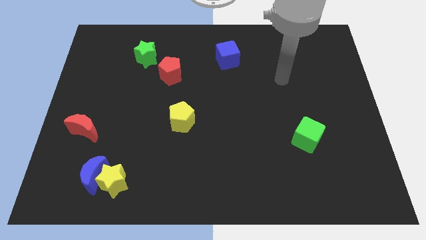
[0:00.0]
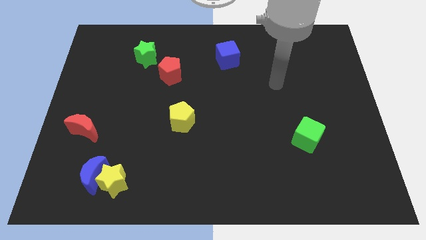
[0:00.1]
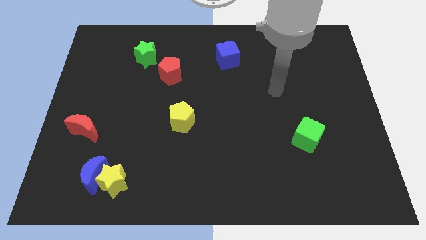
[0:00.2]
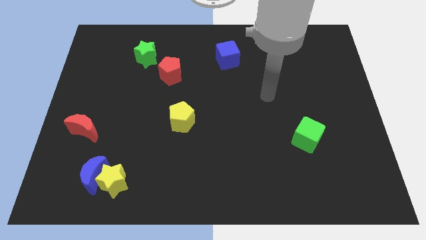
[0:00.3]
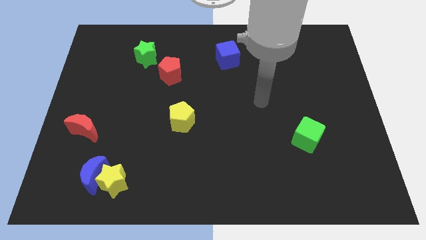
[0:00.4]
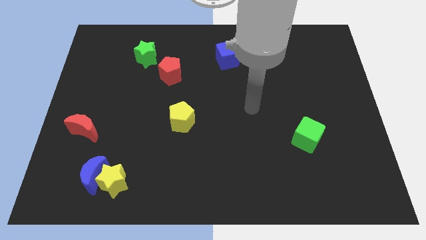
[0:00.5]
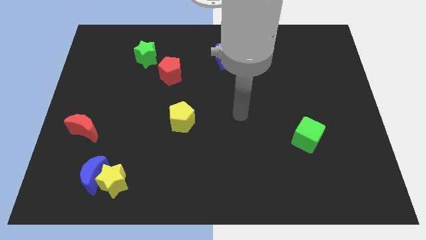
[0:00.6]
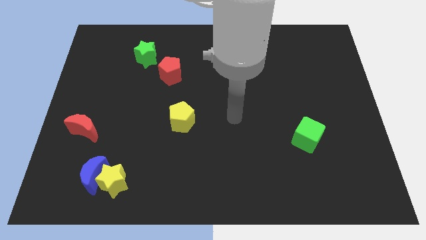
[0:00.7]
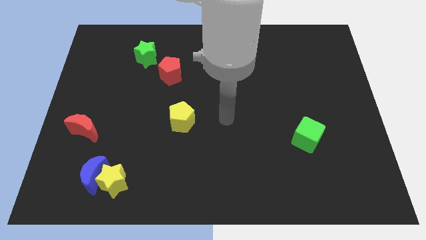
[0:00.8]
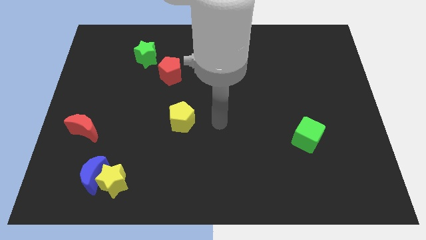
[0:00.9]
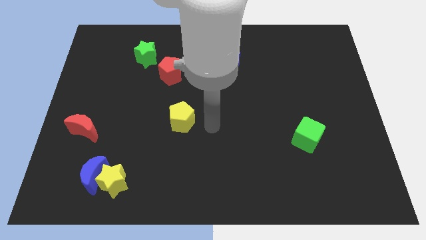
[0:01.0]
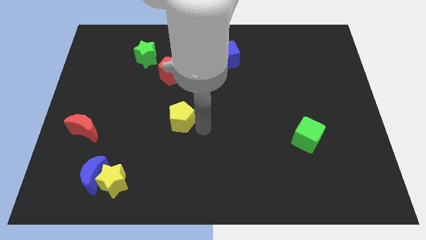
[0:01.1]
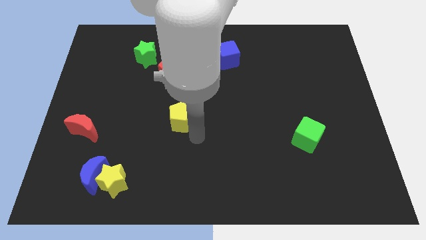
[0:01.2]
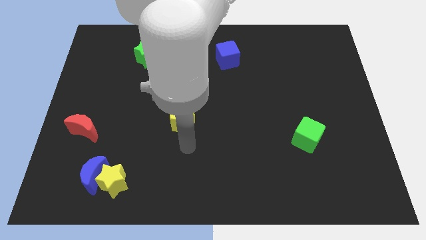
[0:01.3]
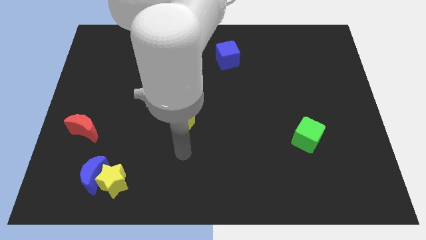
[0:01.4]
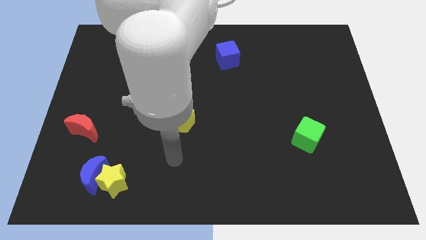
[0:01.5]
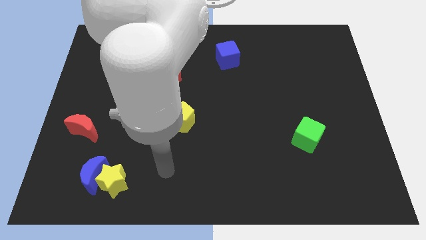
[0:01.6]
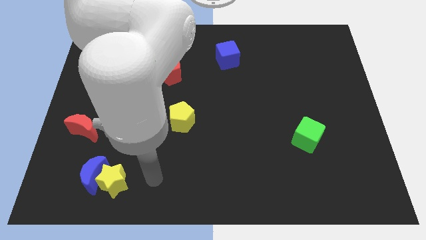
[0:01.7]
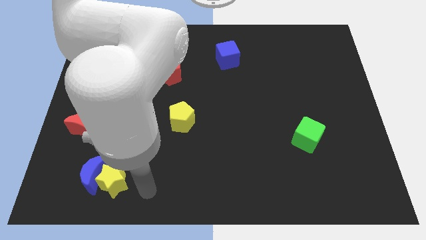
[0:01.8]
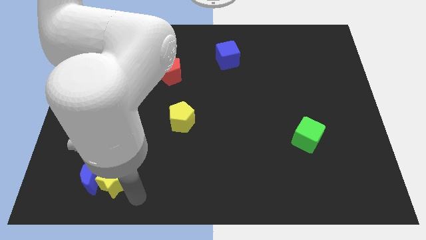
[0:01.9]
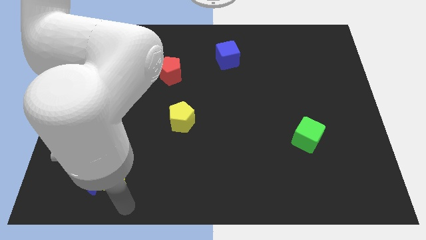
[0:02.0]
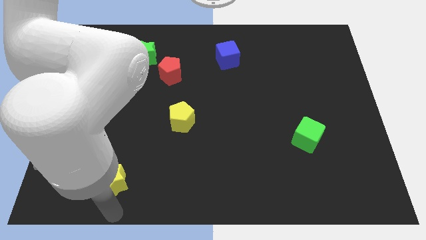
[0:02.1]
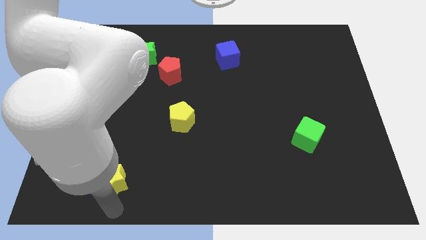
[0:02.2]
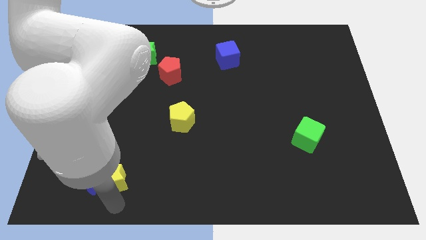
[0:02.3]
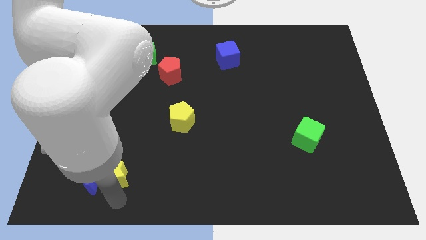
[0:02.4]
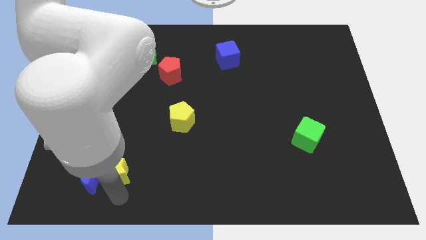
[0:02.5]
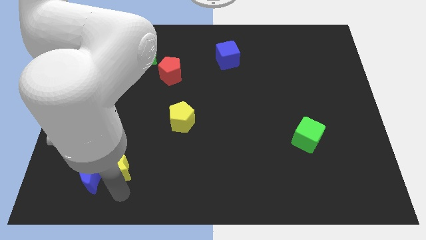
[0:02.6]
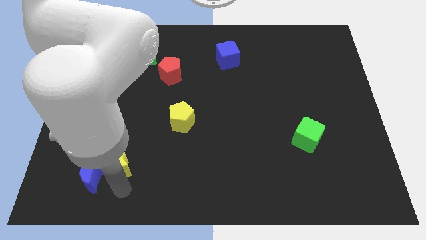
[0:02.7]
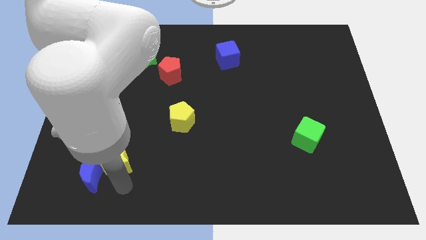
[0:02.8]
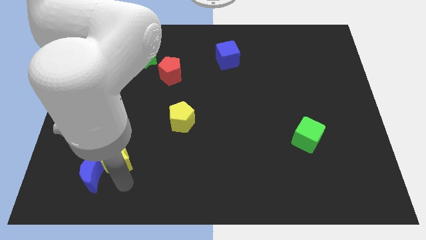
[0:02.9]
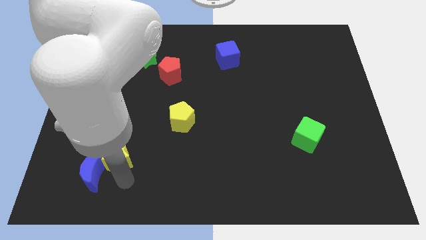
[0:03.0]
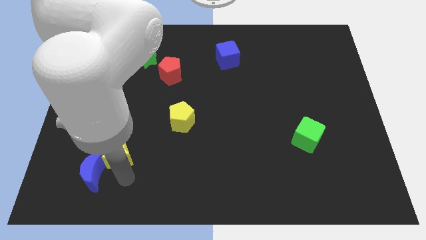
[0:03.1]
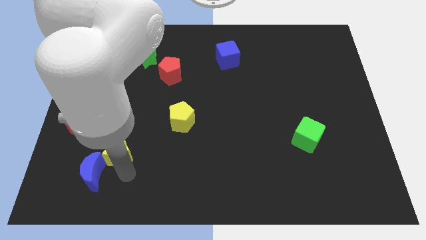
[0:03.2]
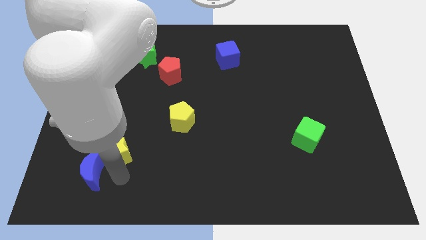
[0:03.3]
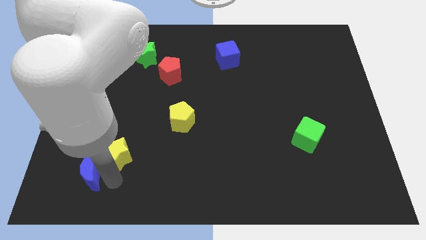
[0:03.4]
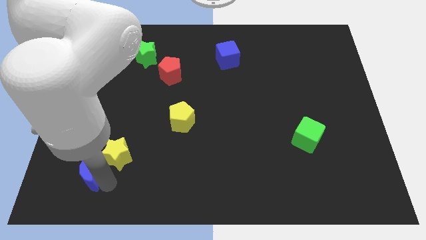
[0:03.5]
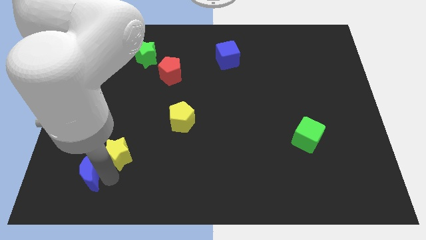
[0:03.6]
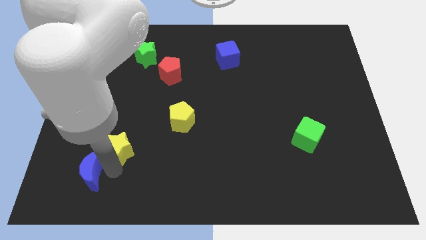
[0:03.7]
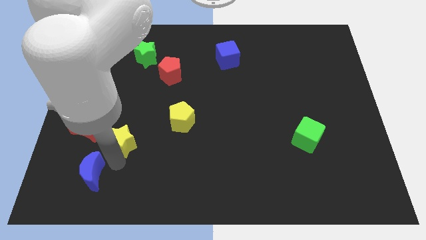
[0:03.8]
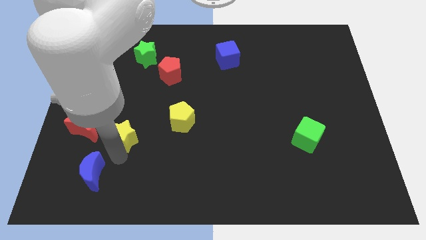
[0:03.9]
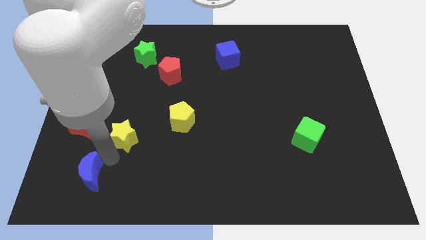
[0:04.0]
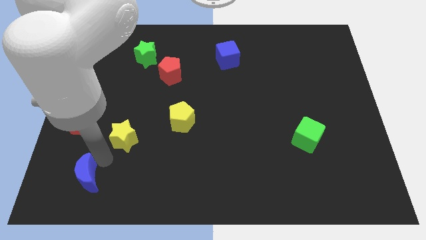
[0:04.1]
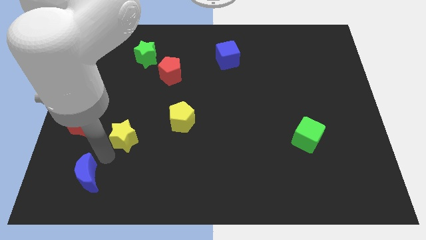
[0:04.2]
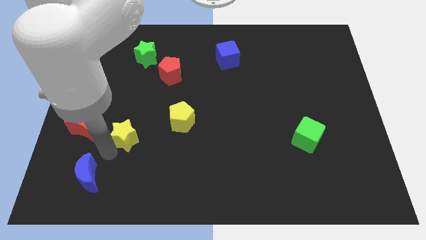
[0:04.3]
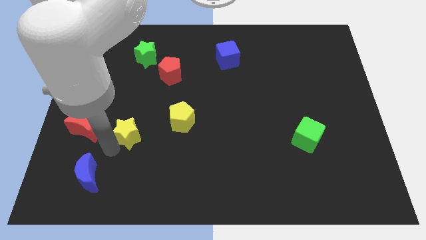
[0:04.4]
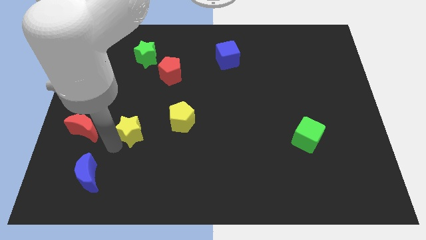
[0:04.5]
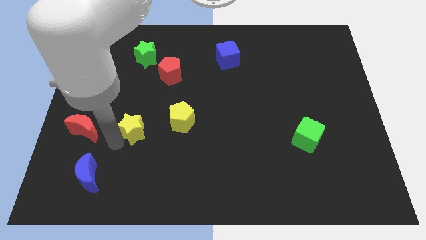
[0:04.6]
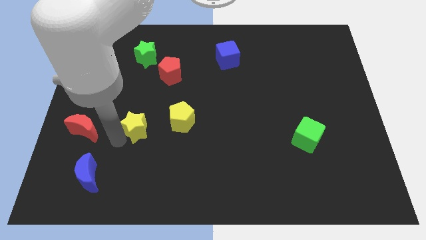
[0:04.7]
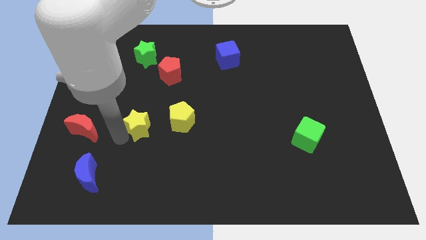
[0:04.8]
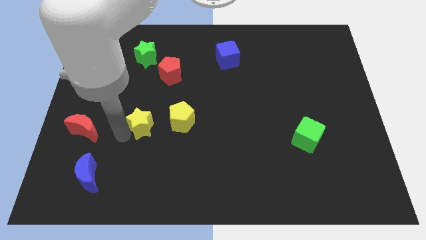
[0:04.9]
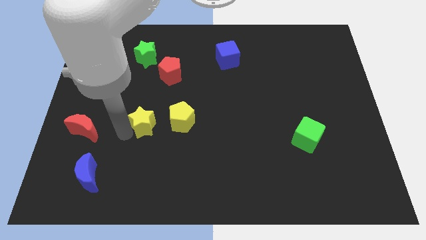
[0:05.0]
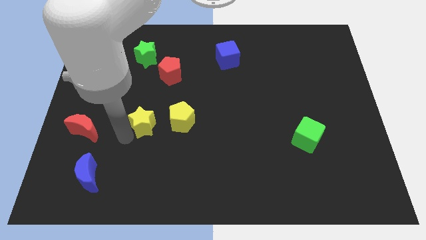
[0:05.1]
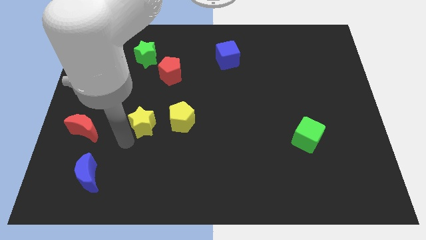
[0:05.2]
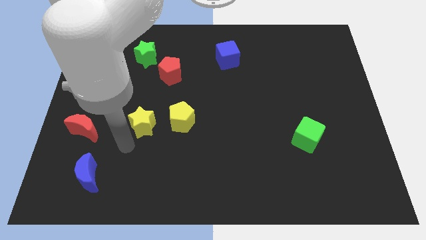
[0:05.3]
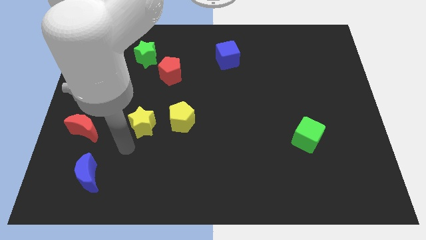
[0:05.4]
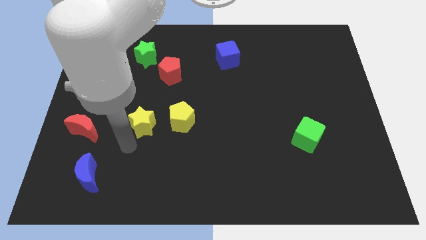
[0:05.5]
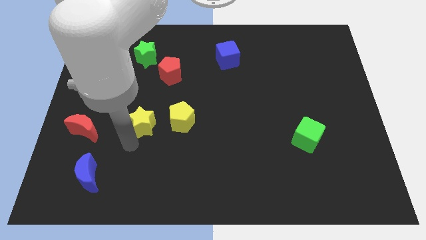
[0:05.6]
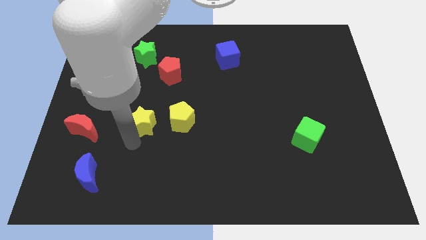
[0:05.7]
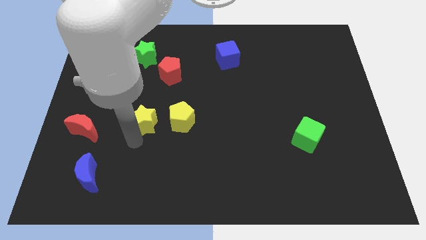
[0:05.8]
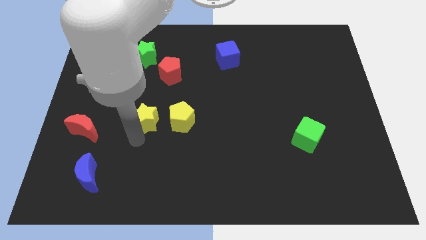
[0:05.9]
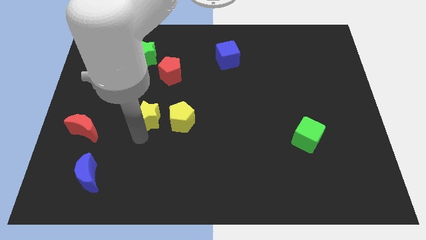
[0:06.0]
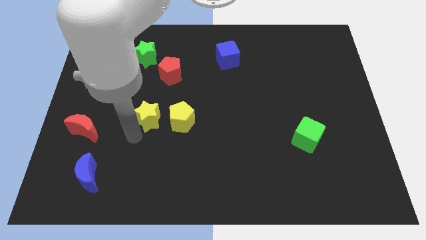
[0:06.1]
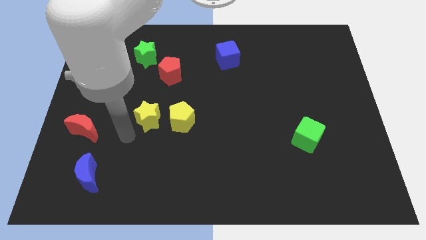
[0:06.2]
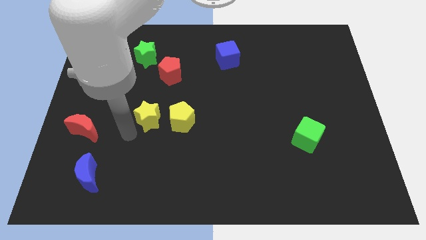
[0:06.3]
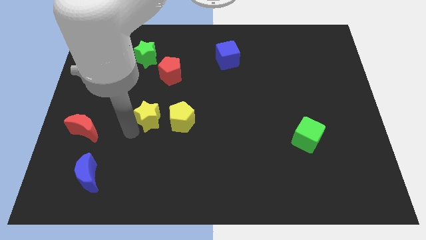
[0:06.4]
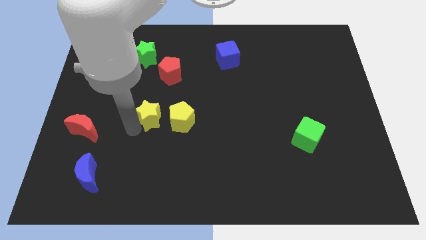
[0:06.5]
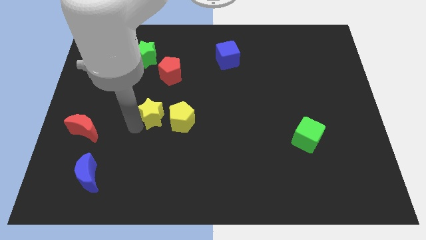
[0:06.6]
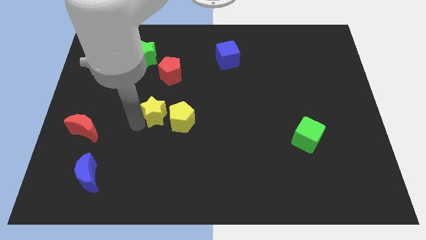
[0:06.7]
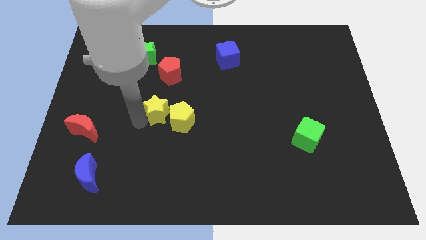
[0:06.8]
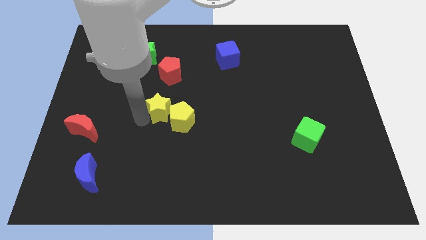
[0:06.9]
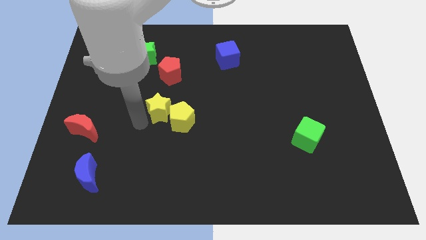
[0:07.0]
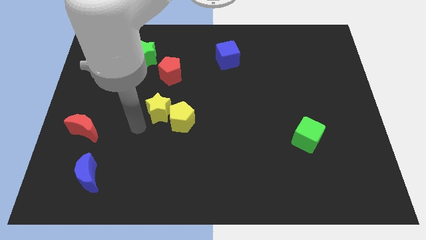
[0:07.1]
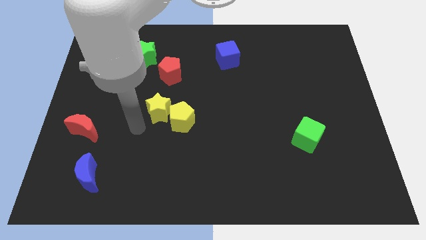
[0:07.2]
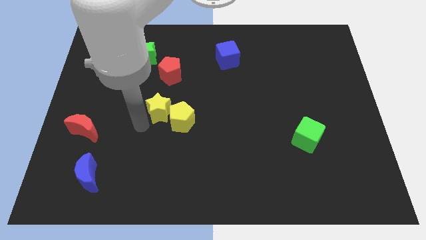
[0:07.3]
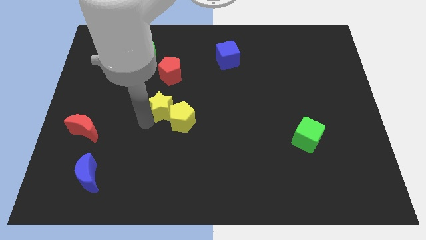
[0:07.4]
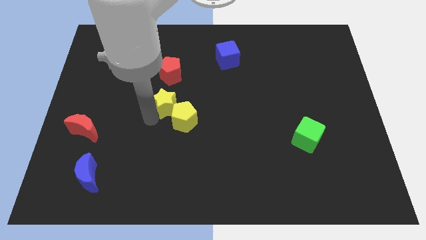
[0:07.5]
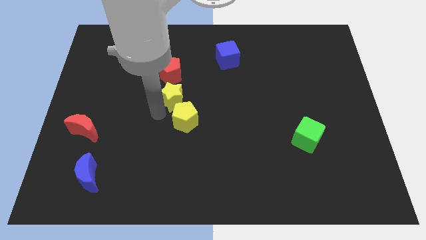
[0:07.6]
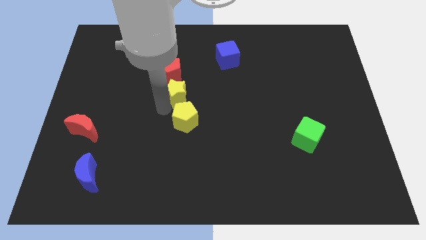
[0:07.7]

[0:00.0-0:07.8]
move the yellow star to the bottom right of the red pentagon

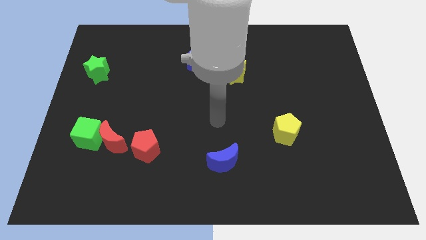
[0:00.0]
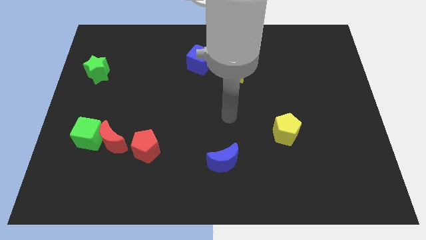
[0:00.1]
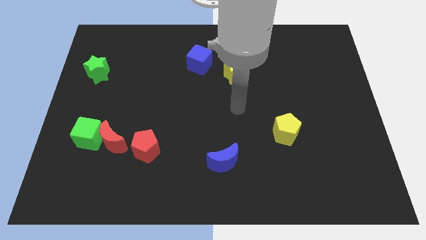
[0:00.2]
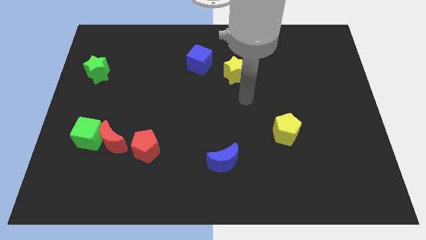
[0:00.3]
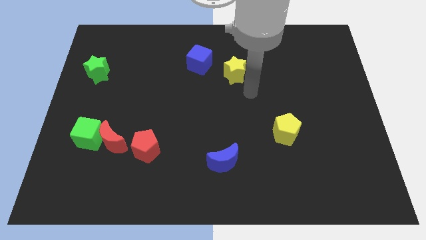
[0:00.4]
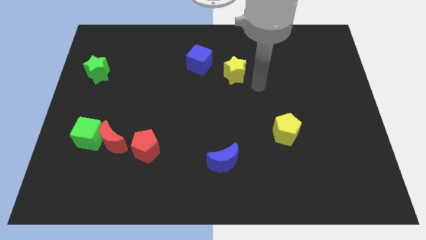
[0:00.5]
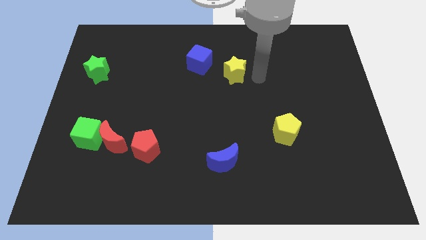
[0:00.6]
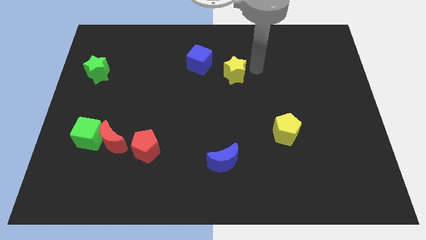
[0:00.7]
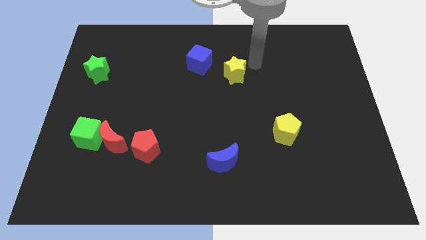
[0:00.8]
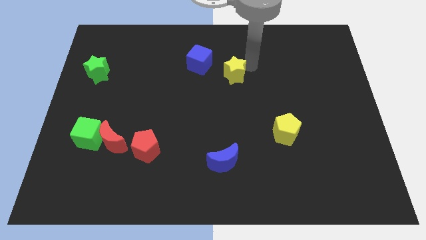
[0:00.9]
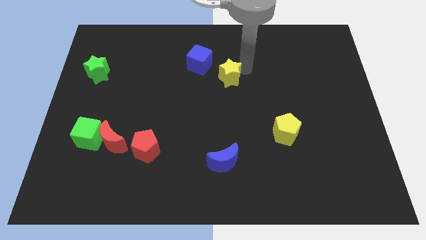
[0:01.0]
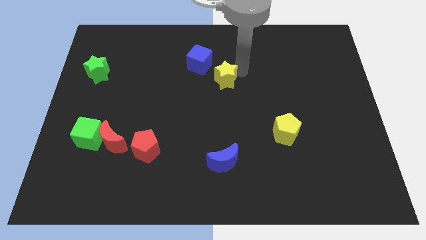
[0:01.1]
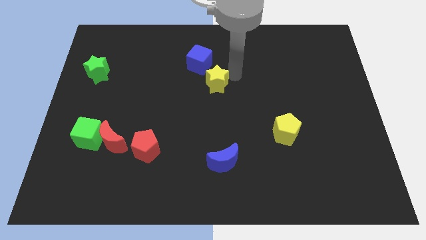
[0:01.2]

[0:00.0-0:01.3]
push the yellow star to the bottom side of the blue cube
